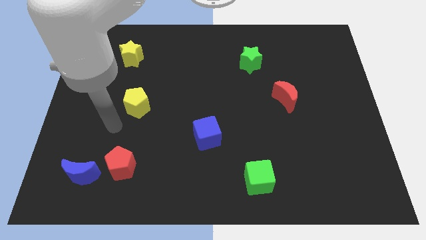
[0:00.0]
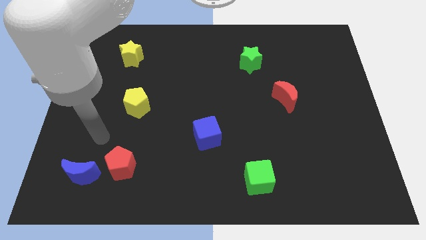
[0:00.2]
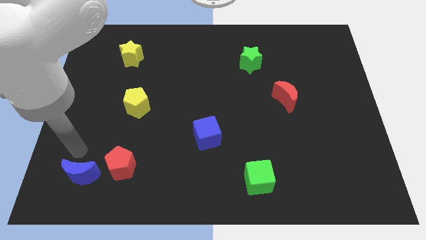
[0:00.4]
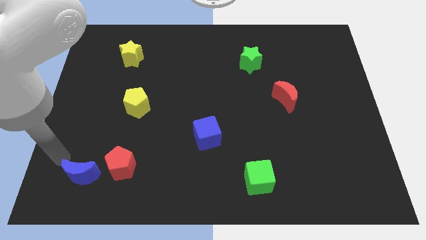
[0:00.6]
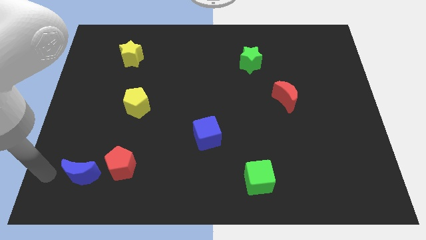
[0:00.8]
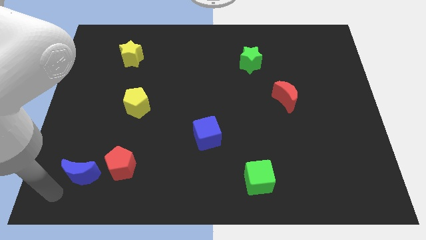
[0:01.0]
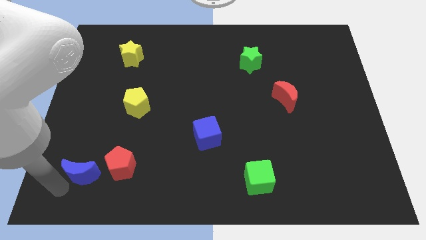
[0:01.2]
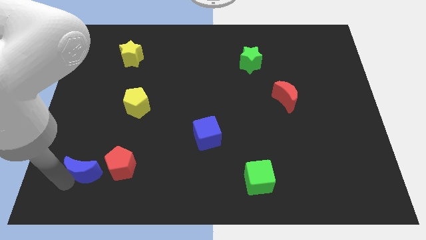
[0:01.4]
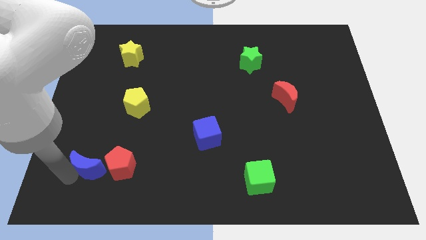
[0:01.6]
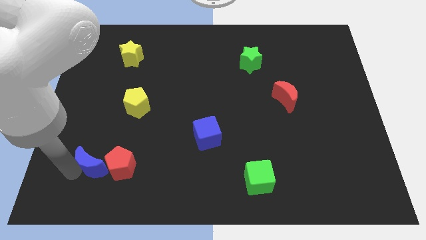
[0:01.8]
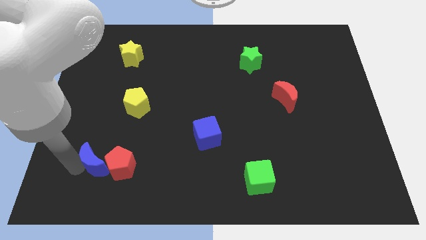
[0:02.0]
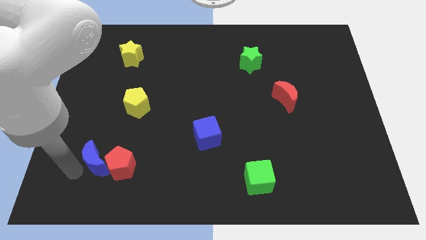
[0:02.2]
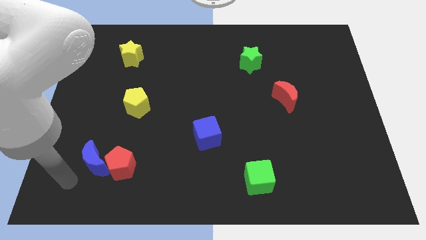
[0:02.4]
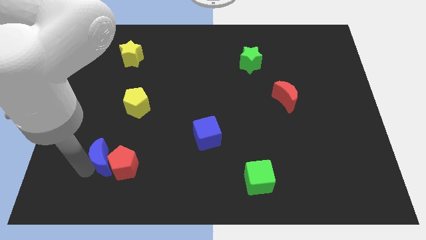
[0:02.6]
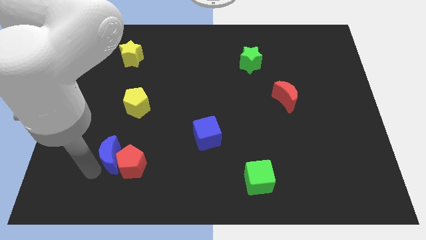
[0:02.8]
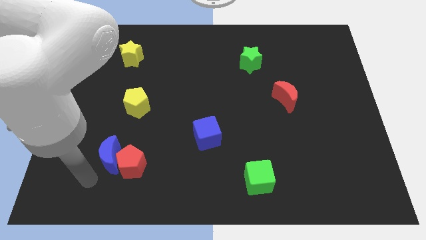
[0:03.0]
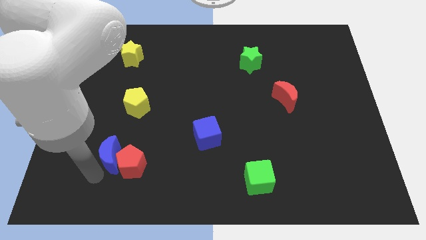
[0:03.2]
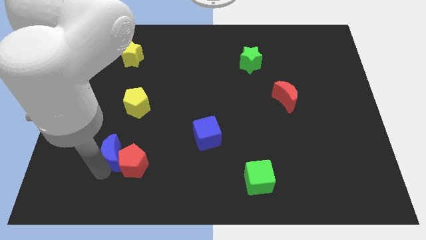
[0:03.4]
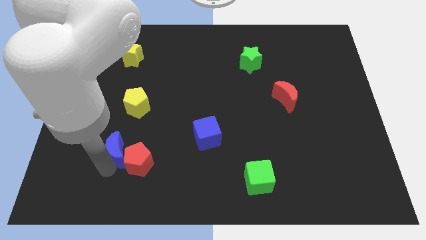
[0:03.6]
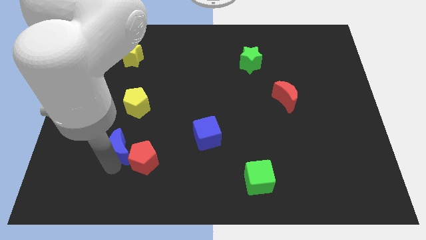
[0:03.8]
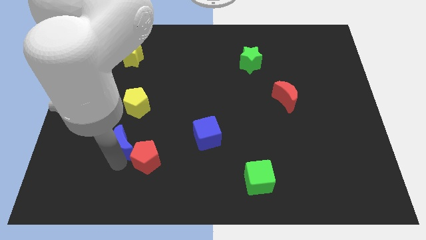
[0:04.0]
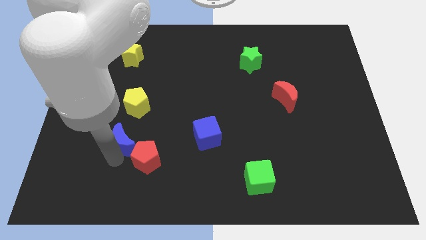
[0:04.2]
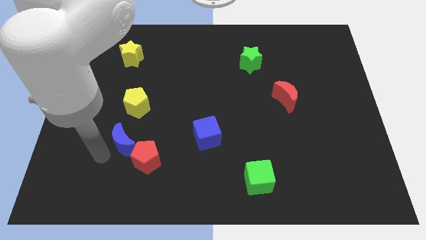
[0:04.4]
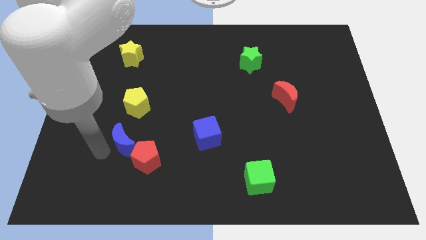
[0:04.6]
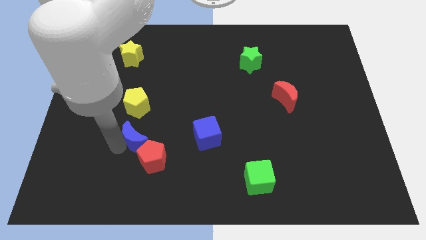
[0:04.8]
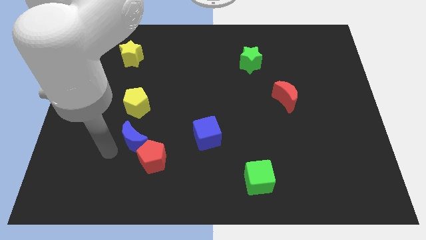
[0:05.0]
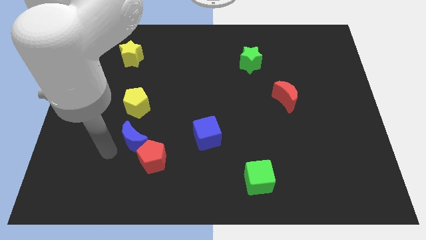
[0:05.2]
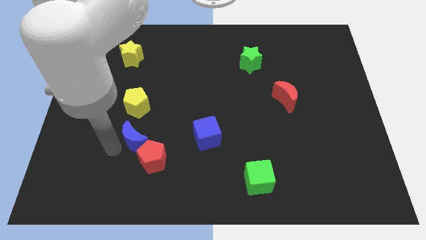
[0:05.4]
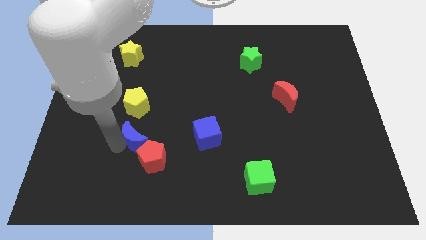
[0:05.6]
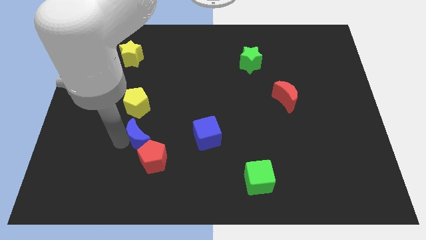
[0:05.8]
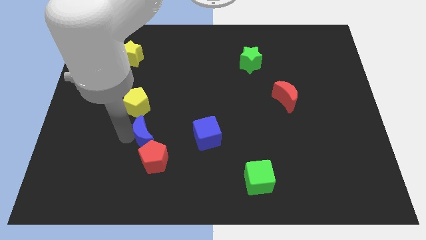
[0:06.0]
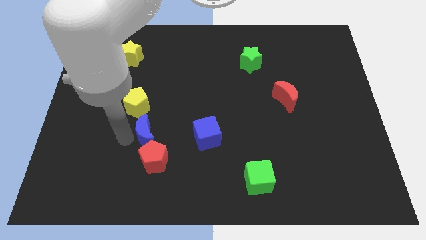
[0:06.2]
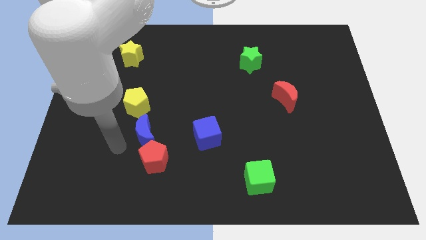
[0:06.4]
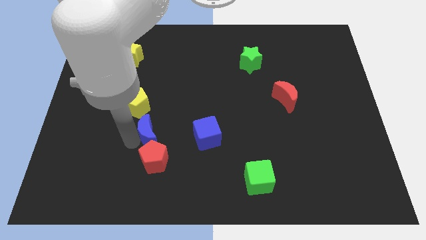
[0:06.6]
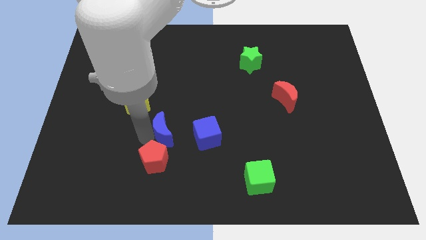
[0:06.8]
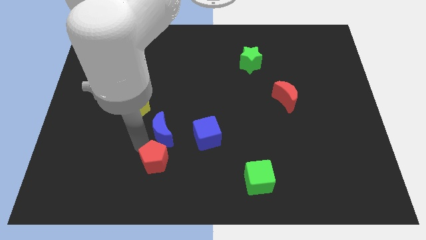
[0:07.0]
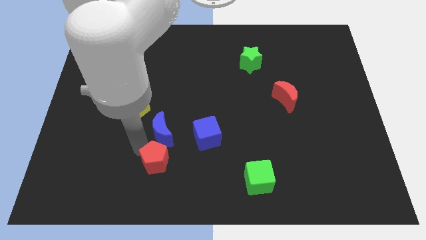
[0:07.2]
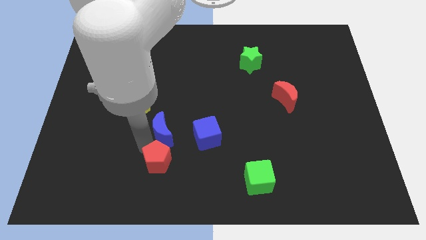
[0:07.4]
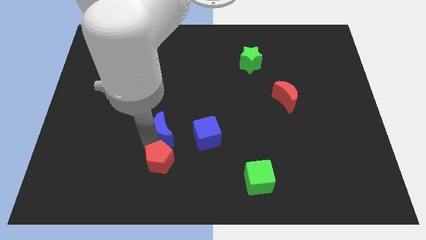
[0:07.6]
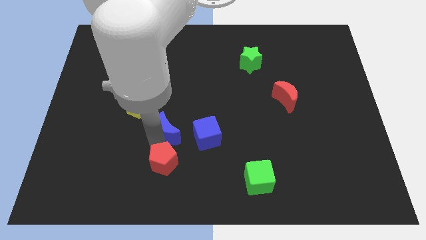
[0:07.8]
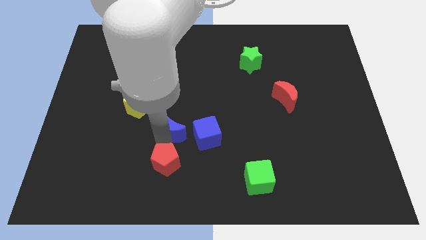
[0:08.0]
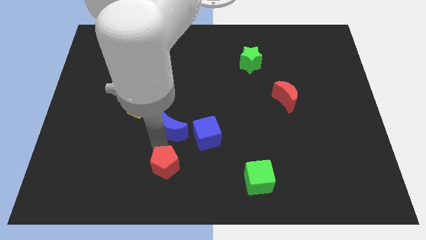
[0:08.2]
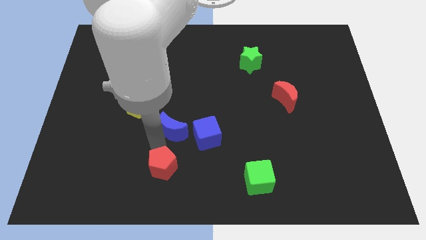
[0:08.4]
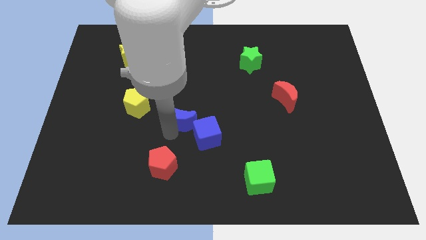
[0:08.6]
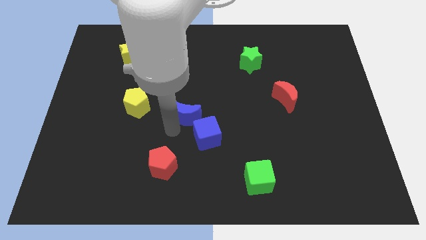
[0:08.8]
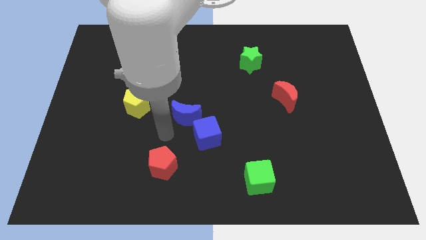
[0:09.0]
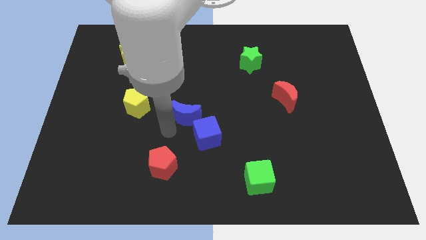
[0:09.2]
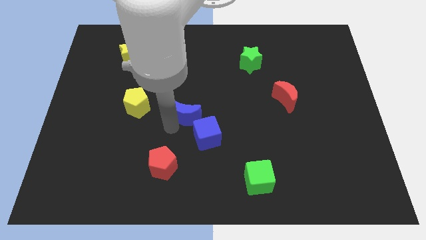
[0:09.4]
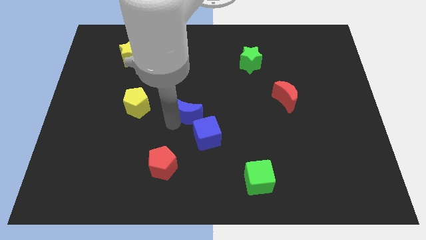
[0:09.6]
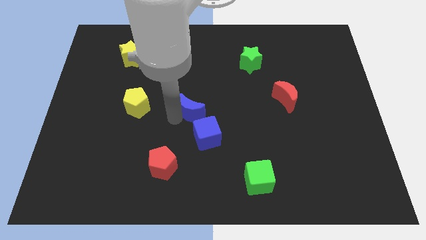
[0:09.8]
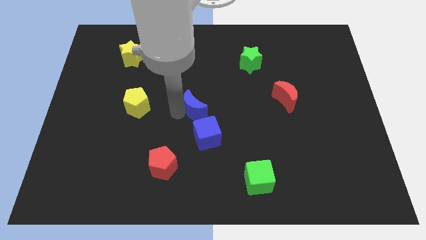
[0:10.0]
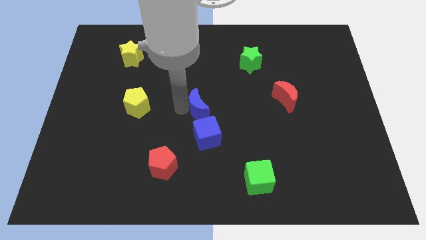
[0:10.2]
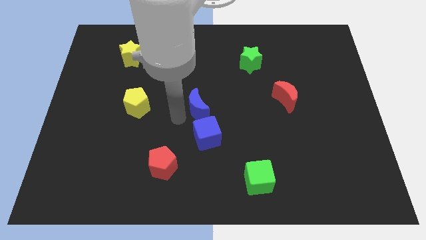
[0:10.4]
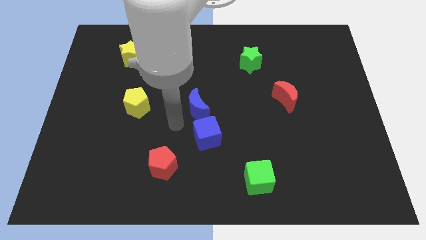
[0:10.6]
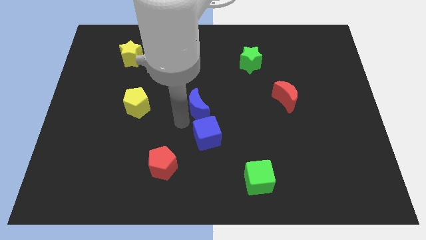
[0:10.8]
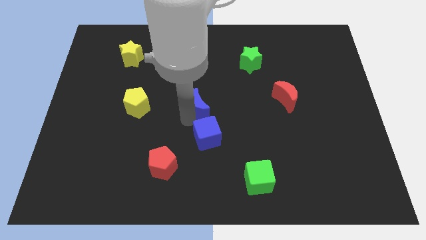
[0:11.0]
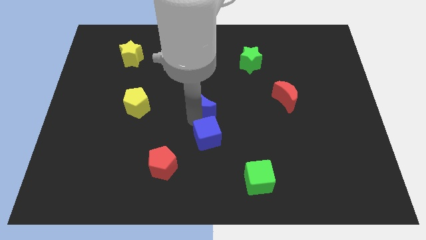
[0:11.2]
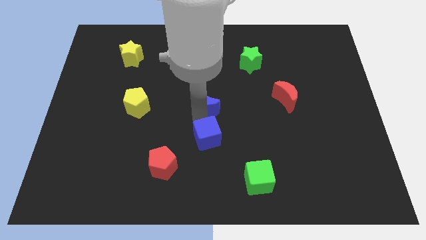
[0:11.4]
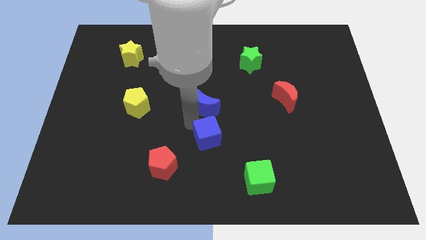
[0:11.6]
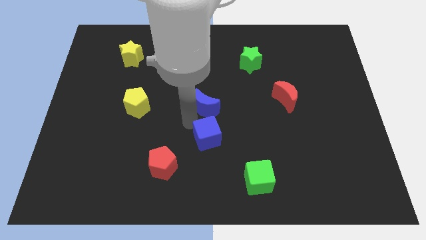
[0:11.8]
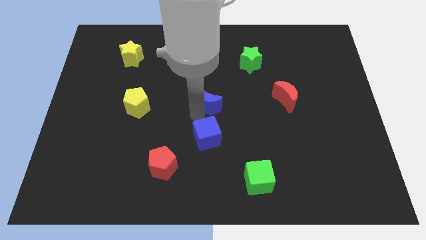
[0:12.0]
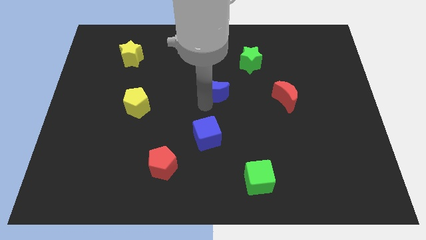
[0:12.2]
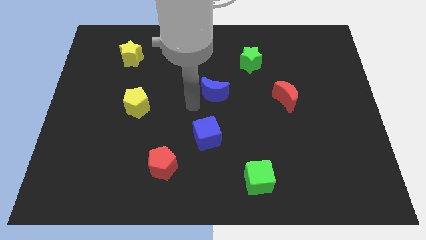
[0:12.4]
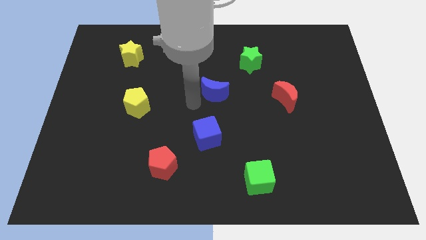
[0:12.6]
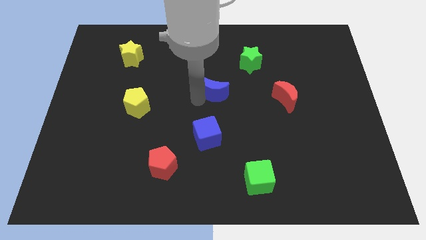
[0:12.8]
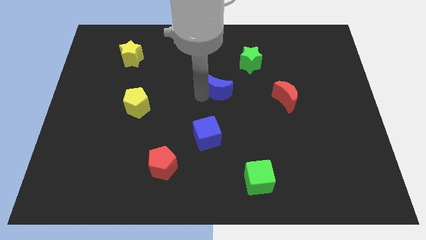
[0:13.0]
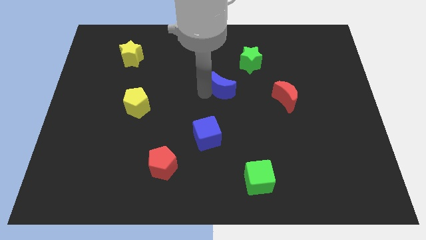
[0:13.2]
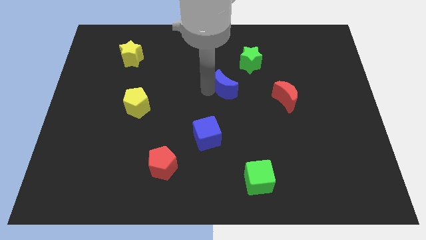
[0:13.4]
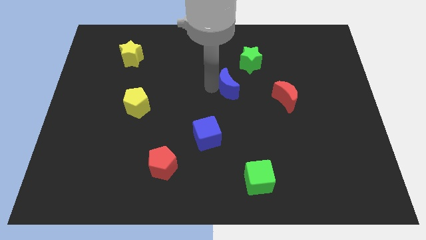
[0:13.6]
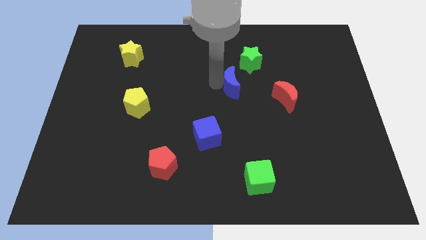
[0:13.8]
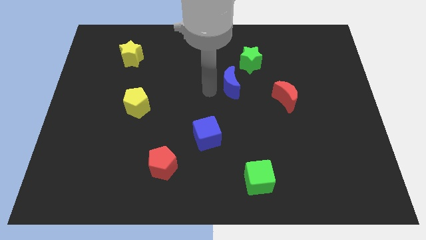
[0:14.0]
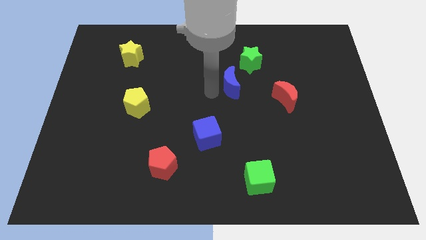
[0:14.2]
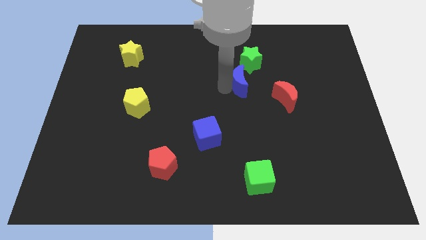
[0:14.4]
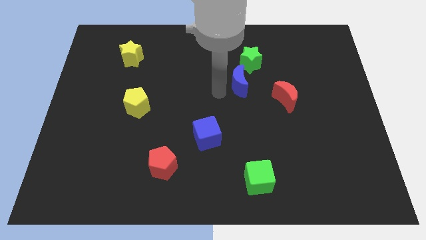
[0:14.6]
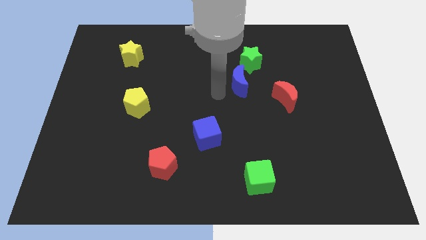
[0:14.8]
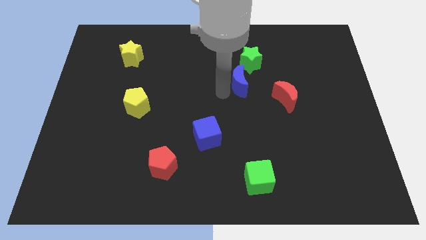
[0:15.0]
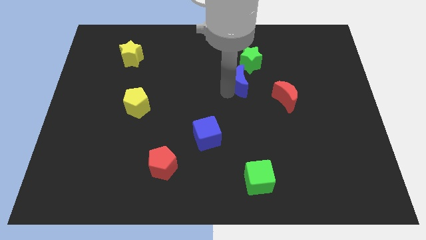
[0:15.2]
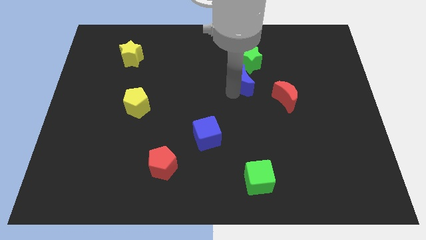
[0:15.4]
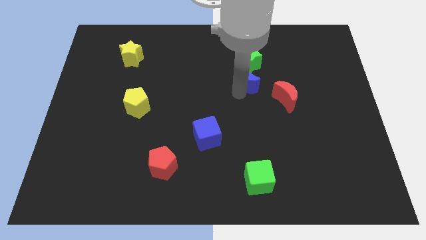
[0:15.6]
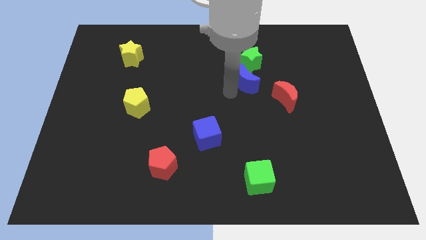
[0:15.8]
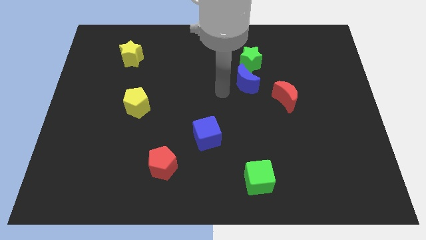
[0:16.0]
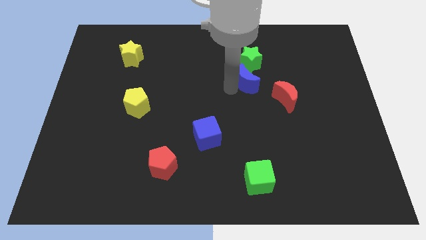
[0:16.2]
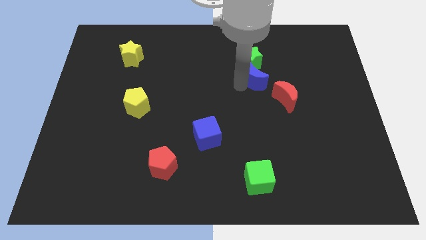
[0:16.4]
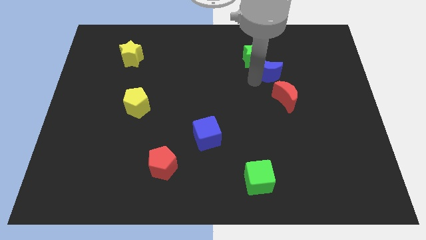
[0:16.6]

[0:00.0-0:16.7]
slide the blue moon to the top side of the red moon
